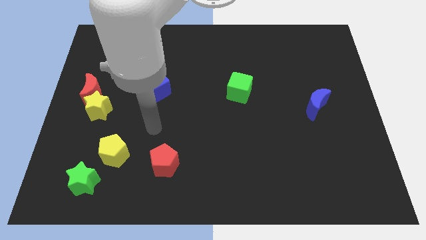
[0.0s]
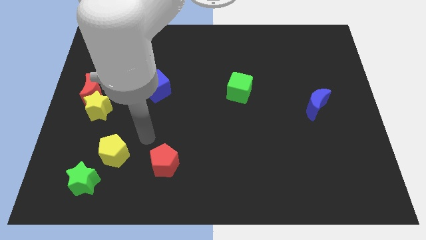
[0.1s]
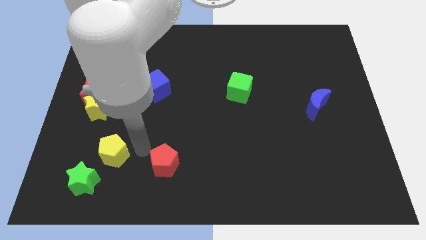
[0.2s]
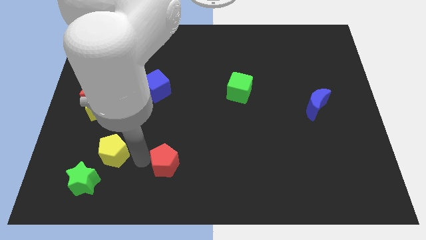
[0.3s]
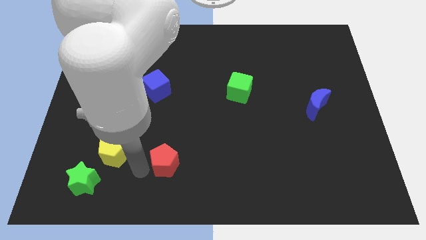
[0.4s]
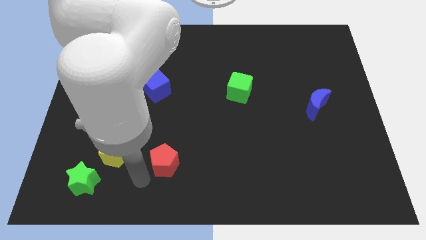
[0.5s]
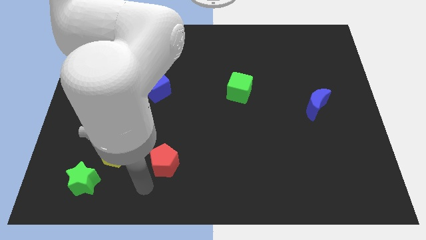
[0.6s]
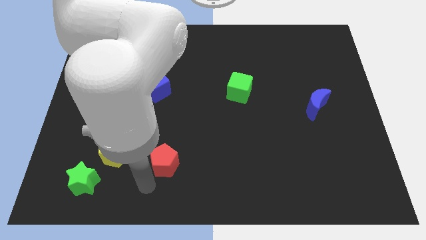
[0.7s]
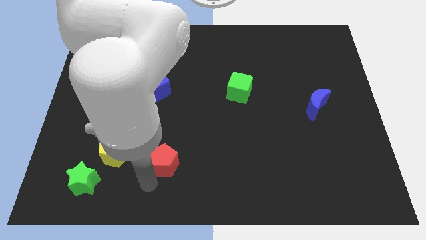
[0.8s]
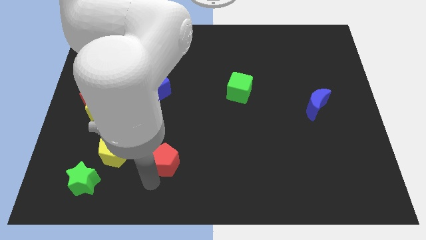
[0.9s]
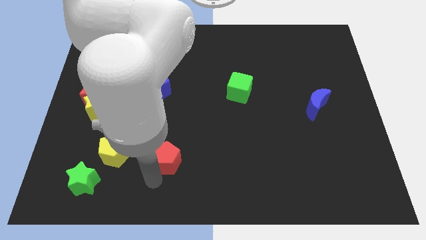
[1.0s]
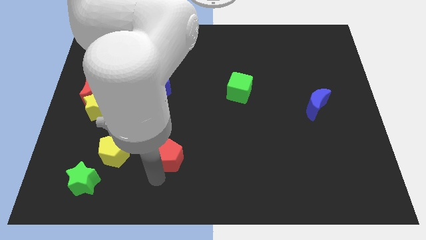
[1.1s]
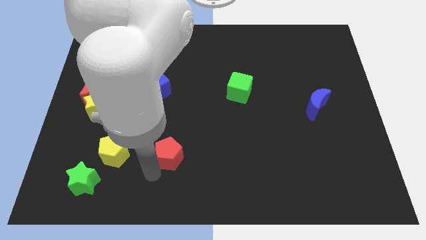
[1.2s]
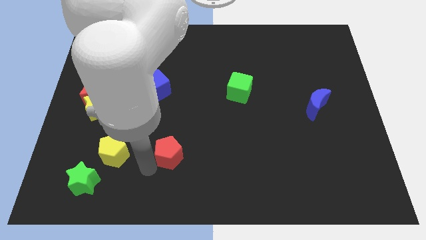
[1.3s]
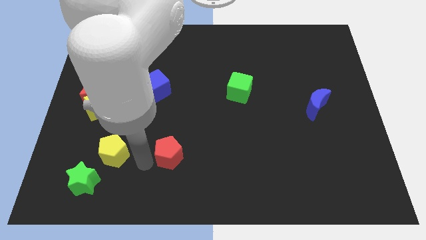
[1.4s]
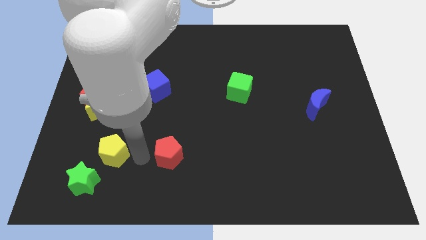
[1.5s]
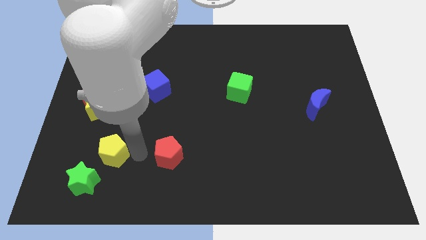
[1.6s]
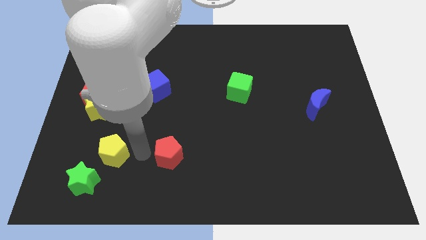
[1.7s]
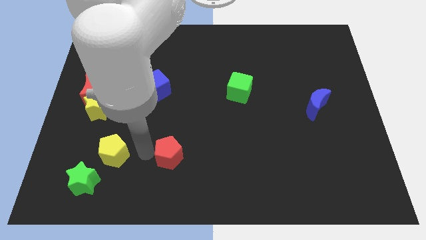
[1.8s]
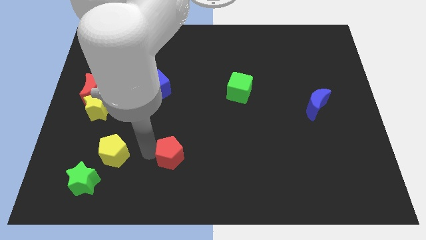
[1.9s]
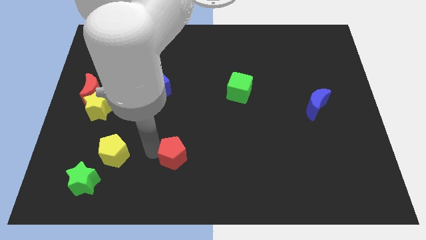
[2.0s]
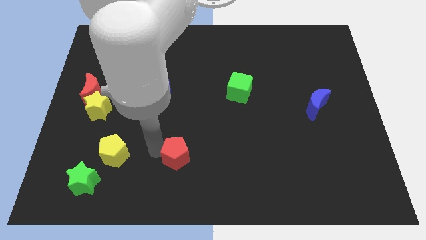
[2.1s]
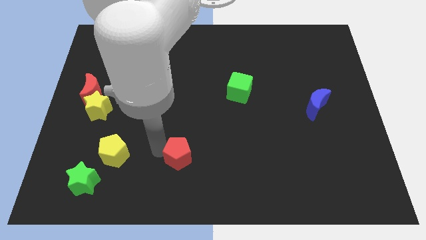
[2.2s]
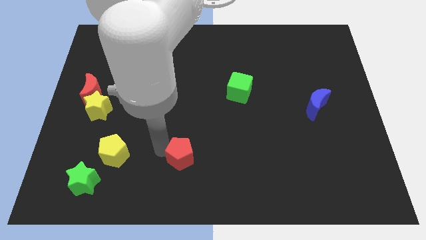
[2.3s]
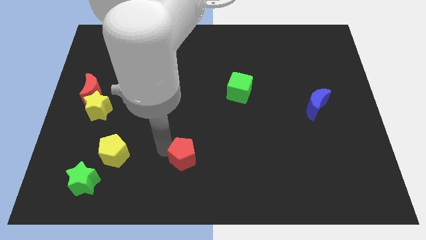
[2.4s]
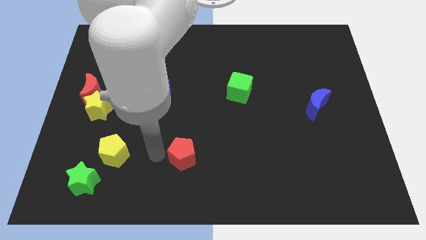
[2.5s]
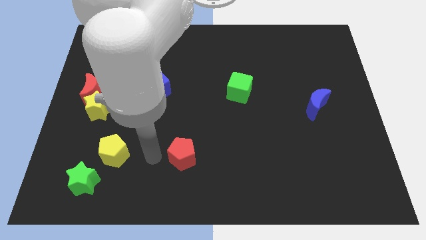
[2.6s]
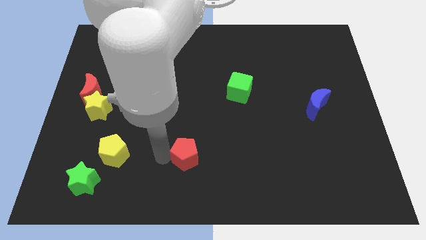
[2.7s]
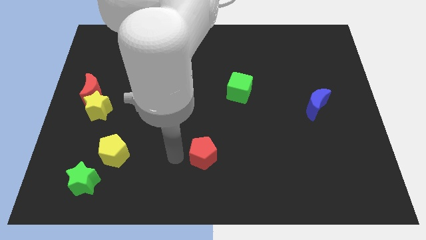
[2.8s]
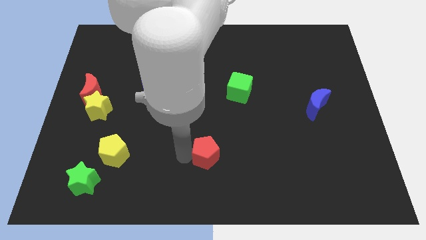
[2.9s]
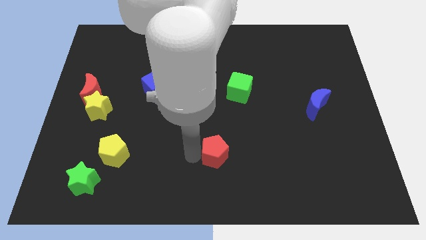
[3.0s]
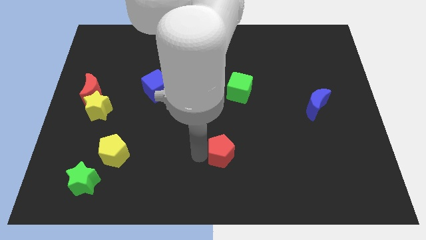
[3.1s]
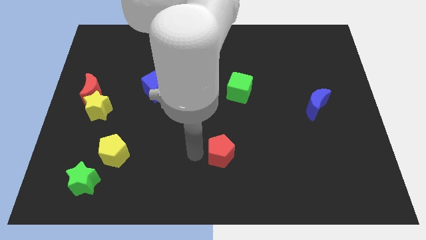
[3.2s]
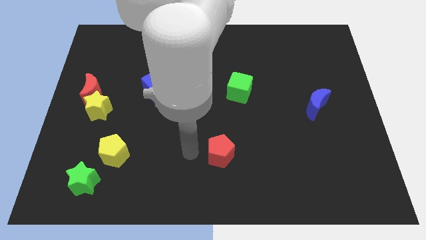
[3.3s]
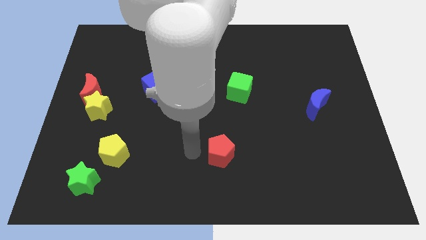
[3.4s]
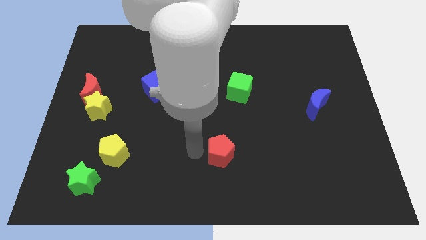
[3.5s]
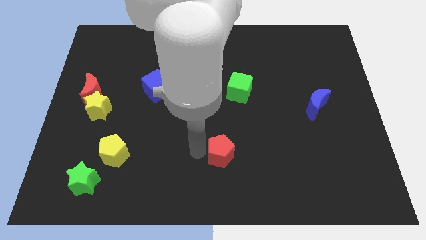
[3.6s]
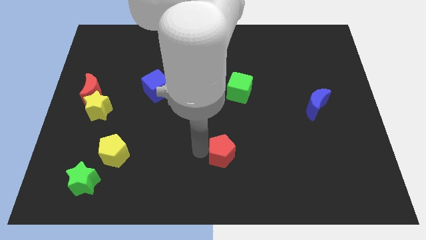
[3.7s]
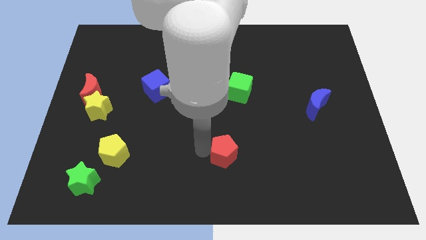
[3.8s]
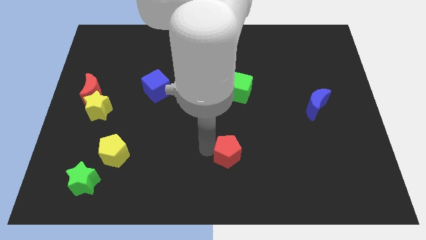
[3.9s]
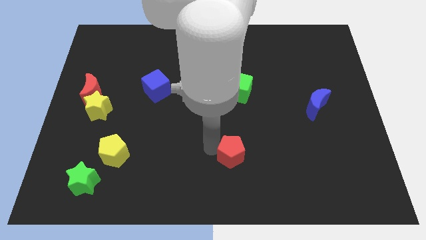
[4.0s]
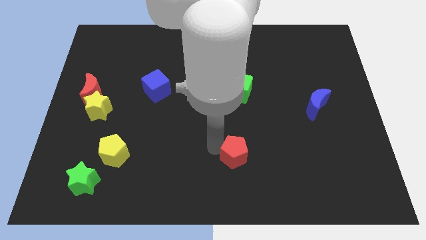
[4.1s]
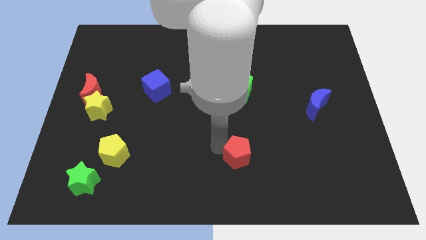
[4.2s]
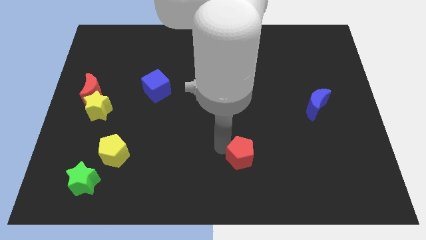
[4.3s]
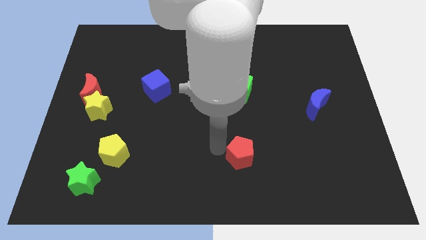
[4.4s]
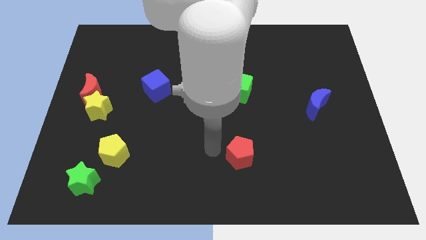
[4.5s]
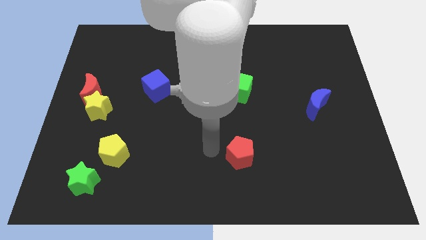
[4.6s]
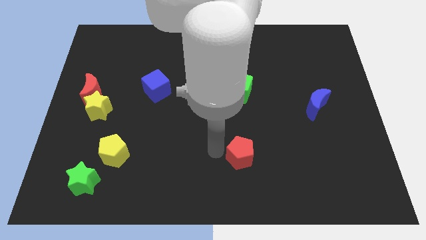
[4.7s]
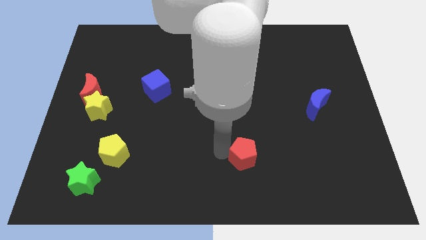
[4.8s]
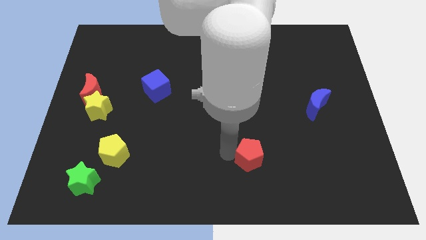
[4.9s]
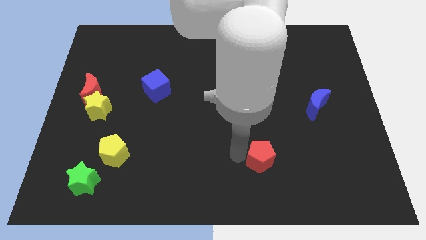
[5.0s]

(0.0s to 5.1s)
push the red pentagon to the right

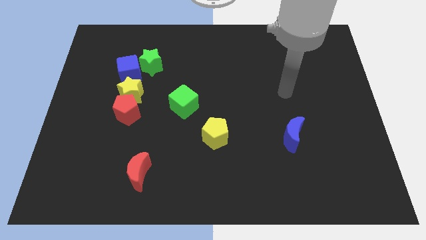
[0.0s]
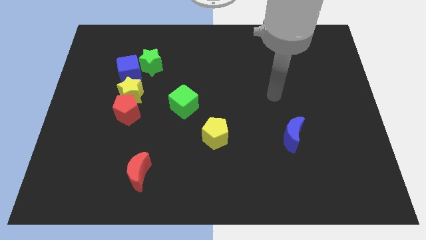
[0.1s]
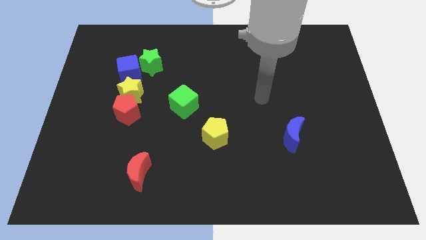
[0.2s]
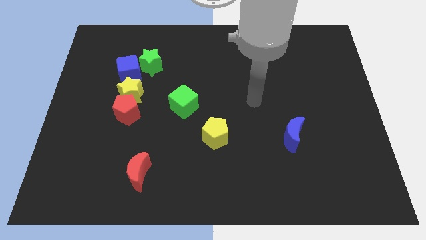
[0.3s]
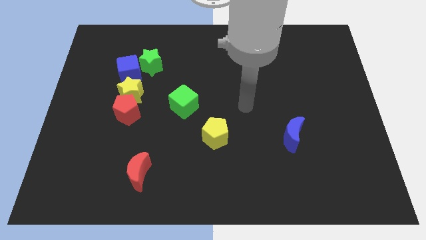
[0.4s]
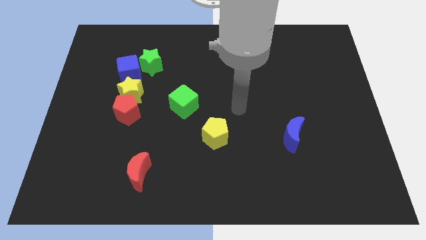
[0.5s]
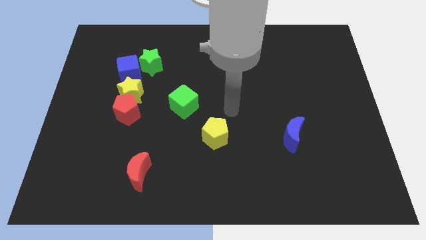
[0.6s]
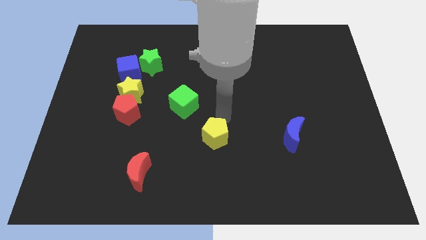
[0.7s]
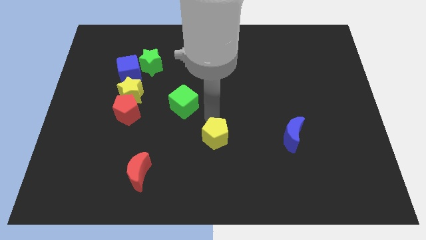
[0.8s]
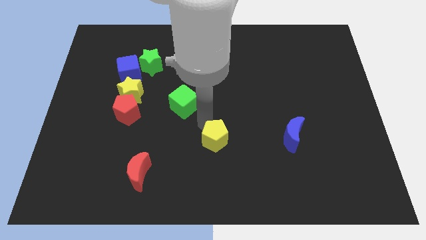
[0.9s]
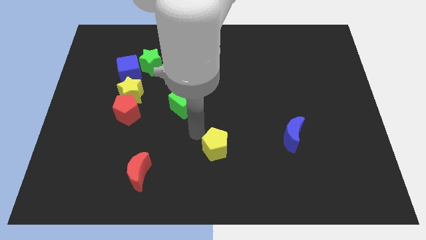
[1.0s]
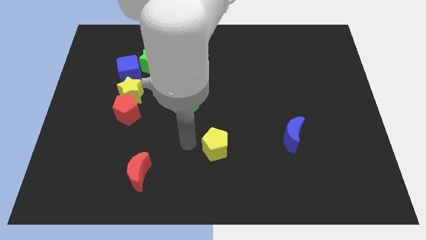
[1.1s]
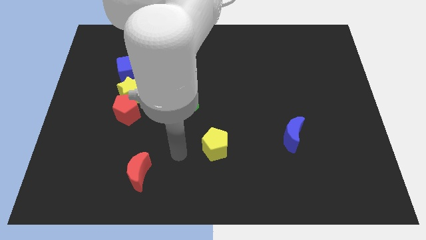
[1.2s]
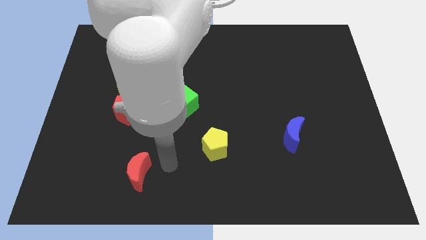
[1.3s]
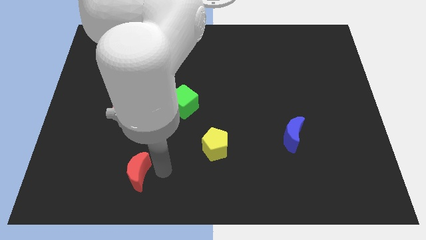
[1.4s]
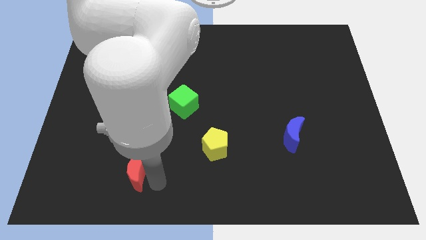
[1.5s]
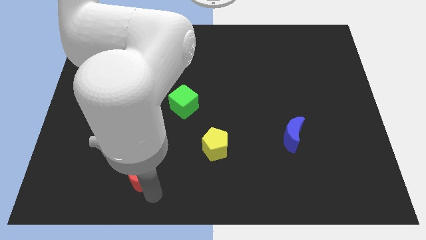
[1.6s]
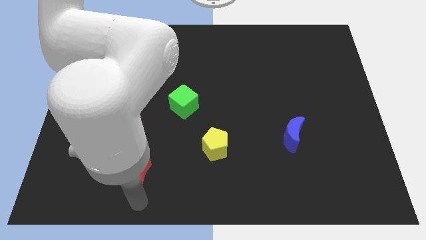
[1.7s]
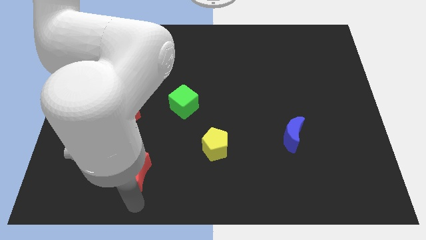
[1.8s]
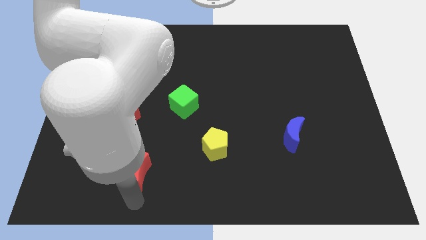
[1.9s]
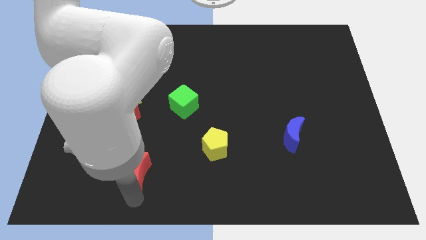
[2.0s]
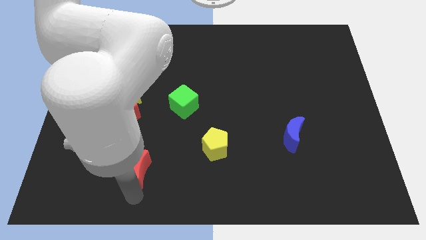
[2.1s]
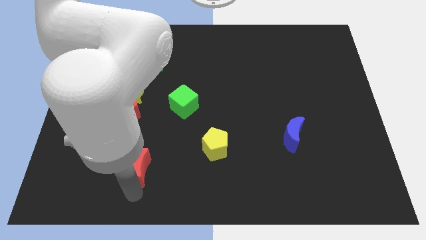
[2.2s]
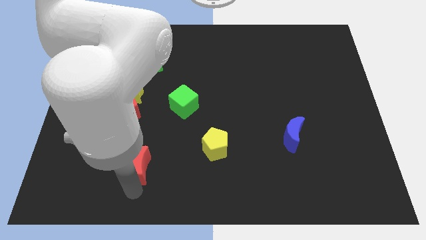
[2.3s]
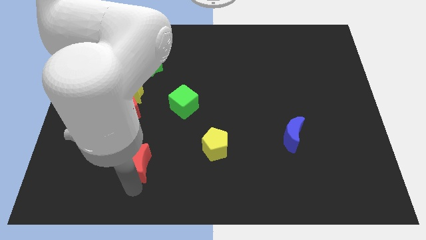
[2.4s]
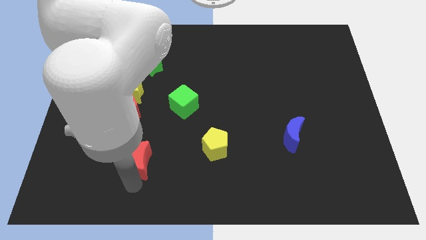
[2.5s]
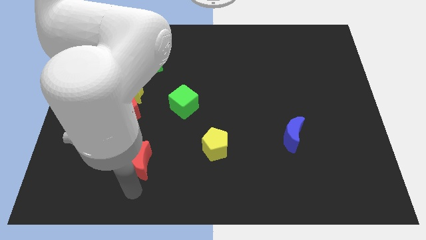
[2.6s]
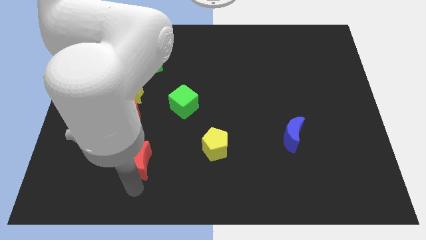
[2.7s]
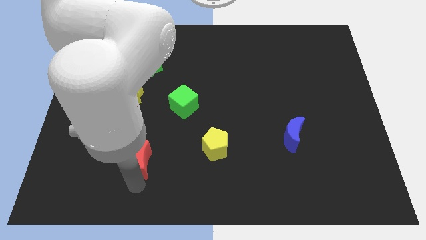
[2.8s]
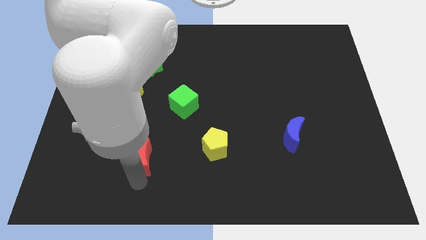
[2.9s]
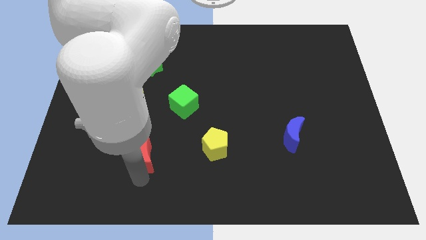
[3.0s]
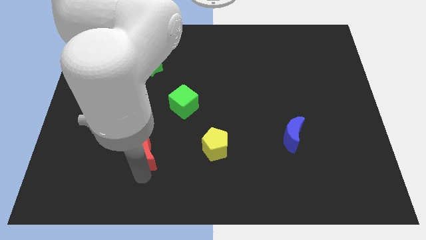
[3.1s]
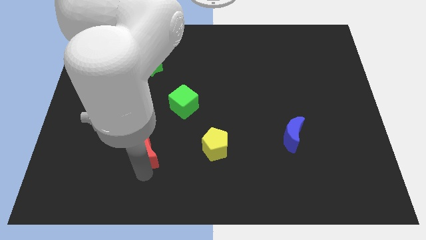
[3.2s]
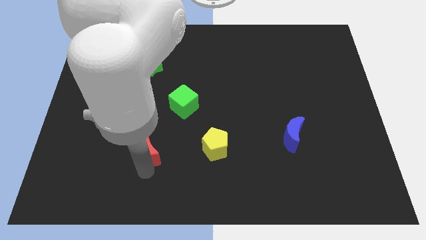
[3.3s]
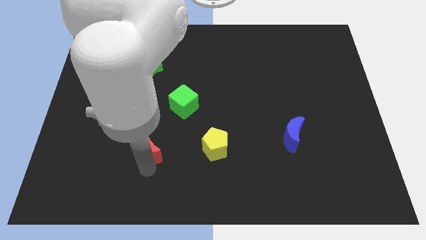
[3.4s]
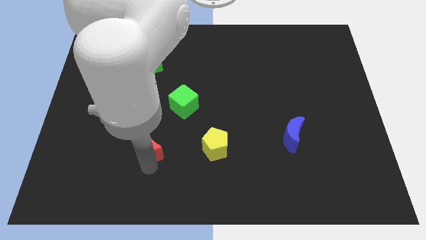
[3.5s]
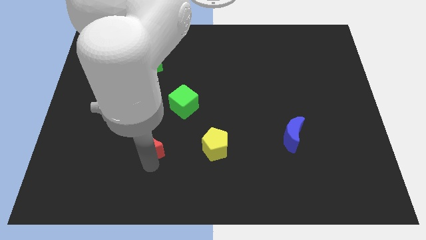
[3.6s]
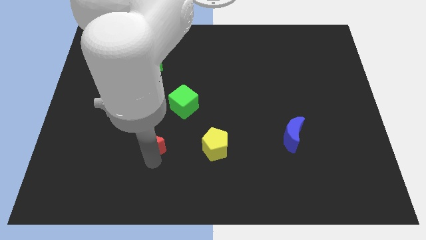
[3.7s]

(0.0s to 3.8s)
slide the red moon somewhat upwards
